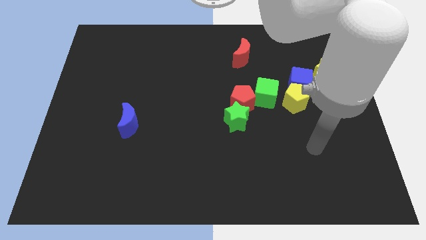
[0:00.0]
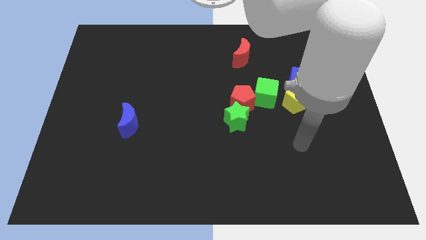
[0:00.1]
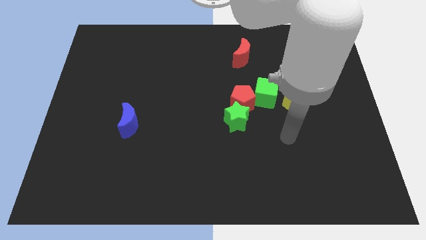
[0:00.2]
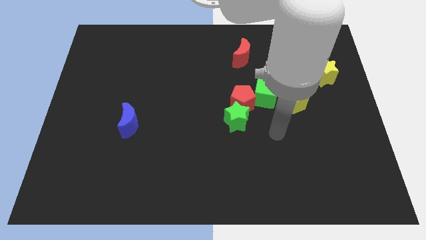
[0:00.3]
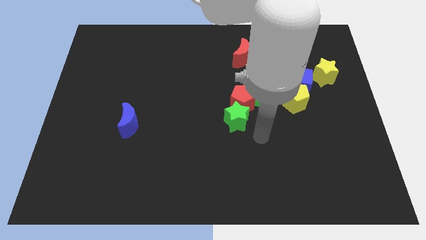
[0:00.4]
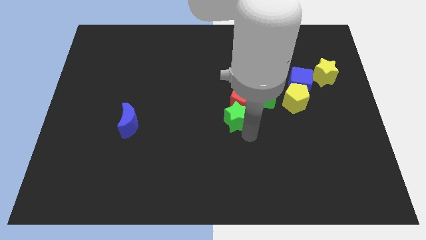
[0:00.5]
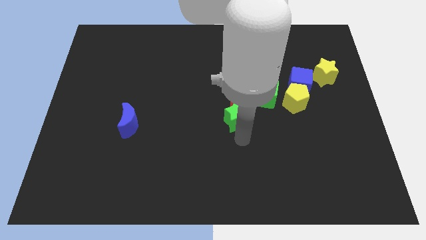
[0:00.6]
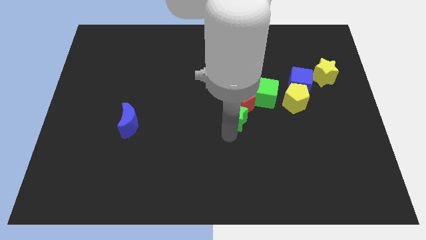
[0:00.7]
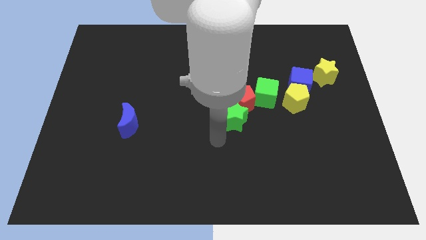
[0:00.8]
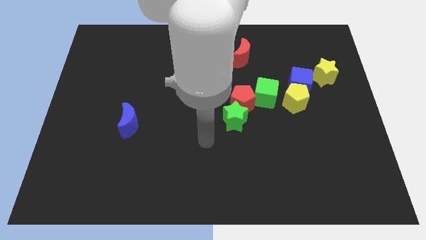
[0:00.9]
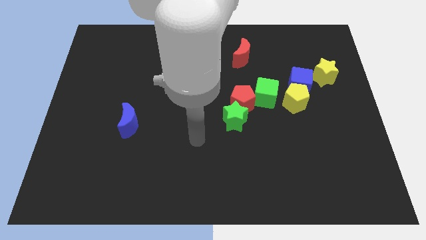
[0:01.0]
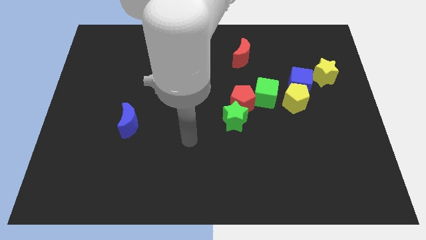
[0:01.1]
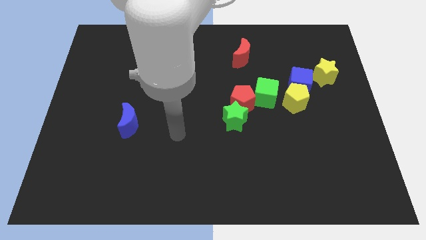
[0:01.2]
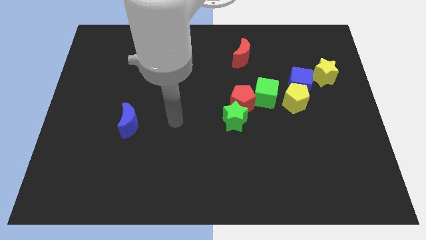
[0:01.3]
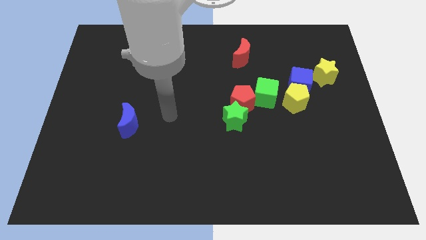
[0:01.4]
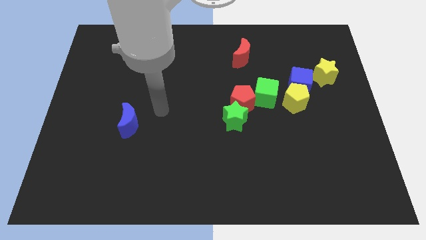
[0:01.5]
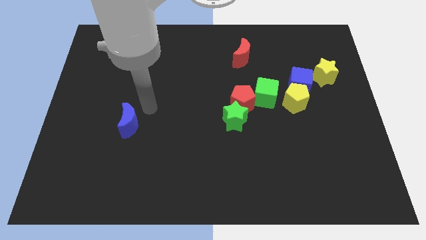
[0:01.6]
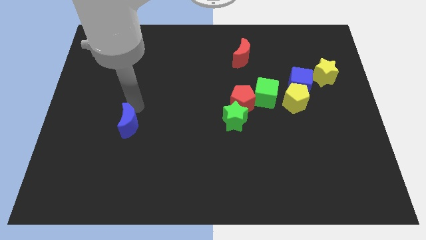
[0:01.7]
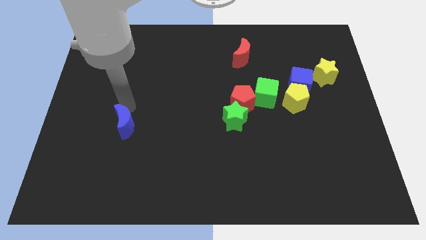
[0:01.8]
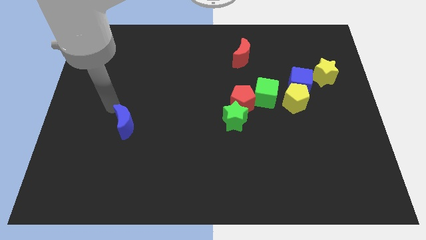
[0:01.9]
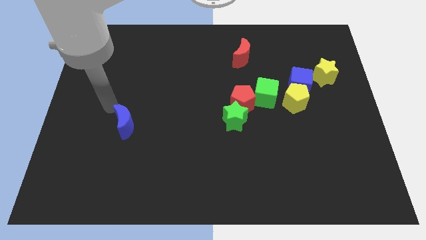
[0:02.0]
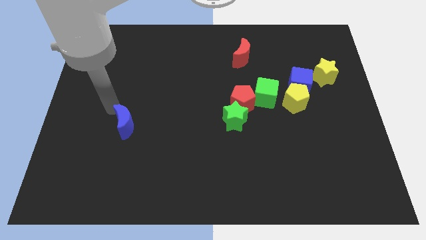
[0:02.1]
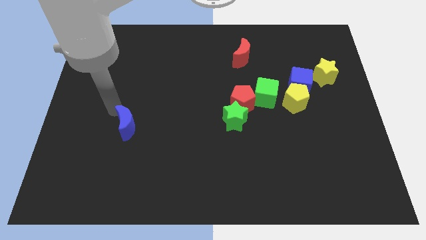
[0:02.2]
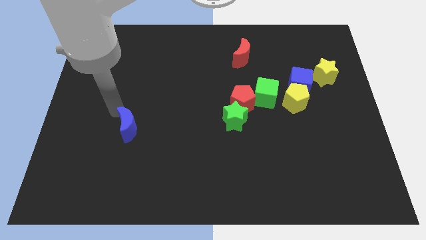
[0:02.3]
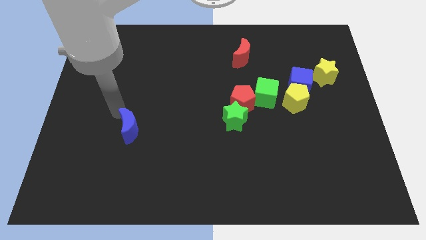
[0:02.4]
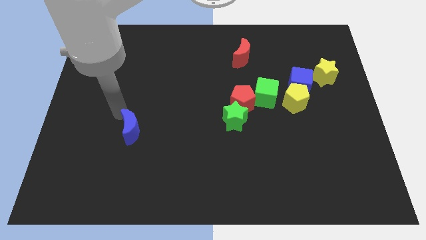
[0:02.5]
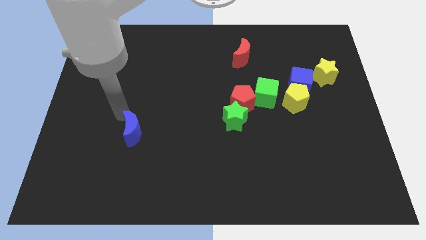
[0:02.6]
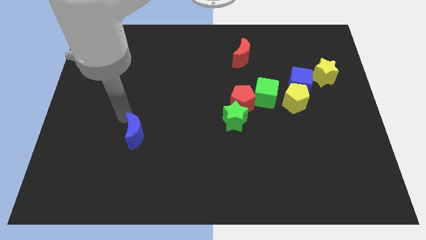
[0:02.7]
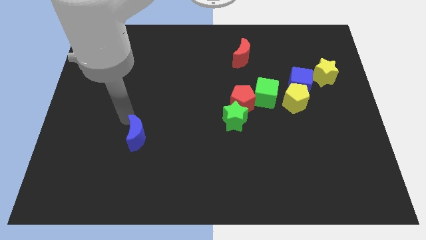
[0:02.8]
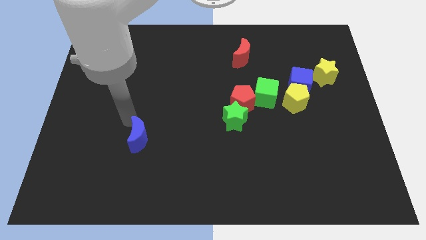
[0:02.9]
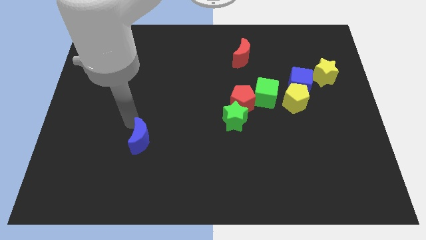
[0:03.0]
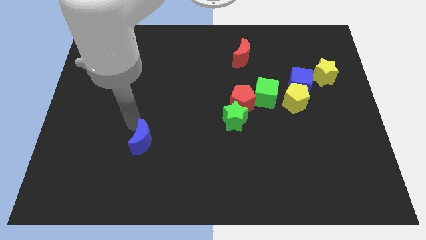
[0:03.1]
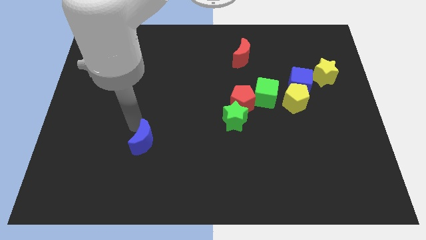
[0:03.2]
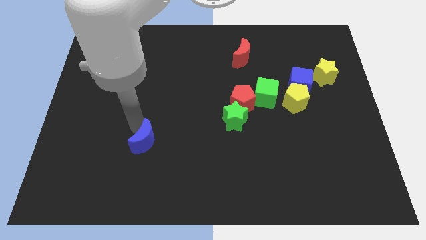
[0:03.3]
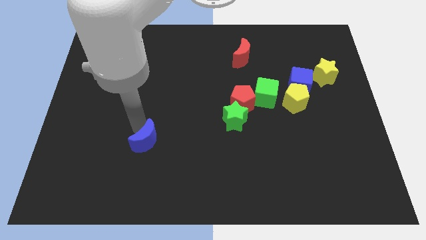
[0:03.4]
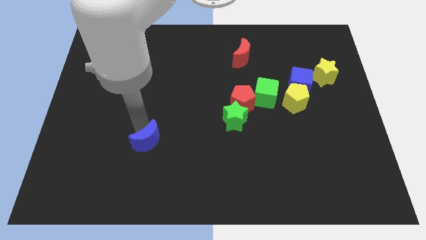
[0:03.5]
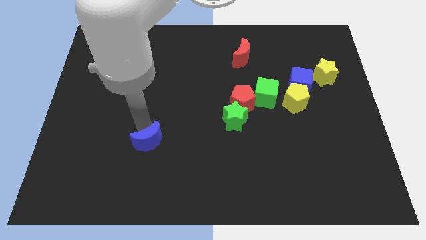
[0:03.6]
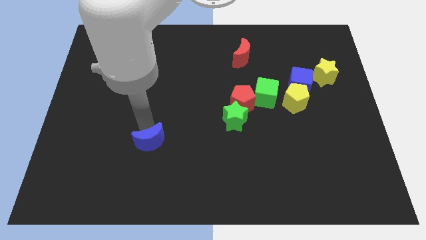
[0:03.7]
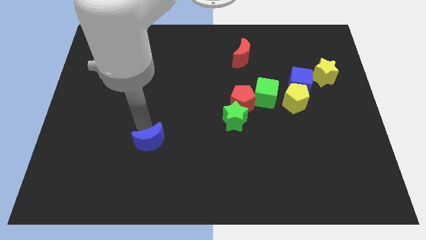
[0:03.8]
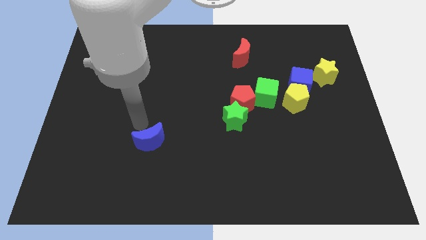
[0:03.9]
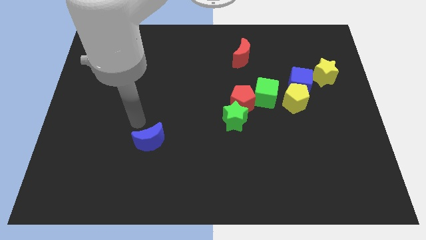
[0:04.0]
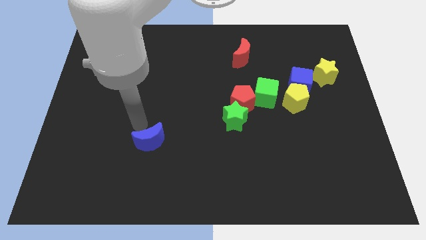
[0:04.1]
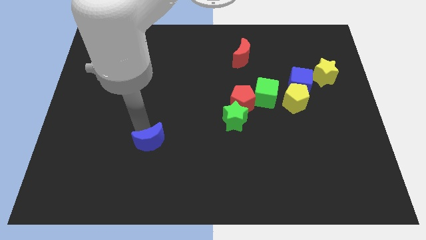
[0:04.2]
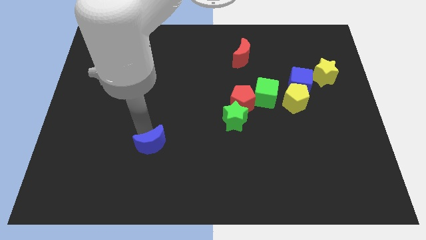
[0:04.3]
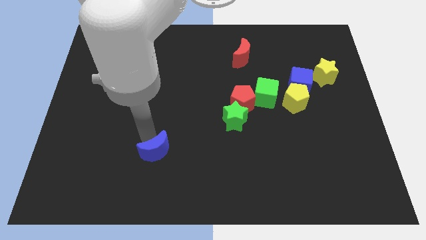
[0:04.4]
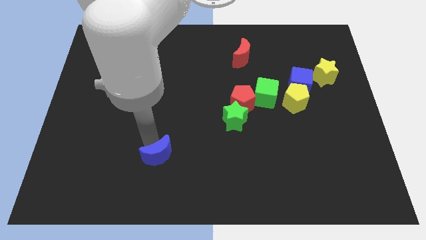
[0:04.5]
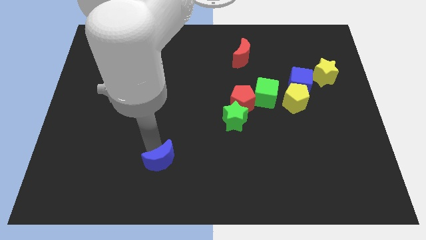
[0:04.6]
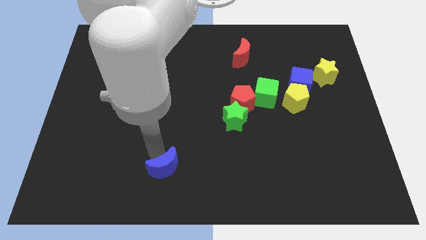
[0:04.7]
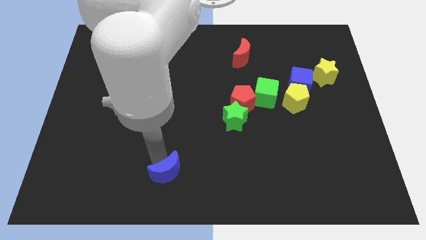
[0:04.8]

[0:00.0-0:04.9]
slide the blue moon to the bottom side

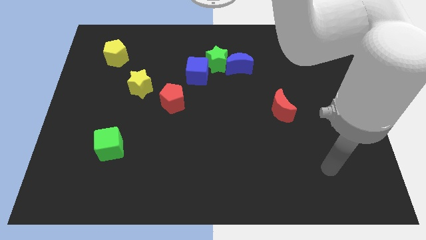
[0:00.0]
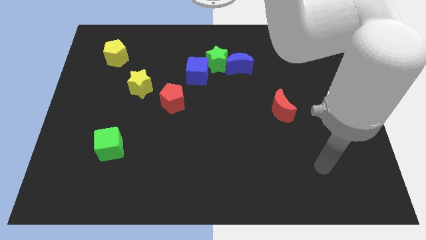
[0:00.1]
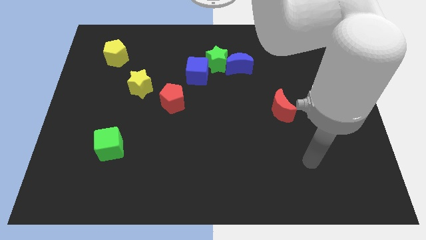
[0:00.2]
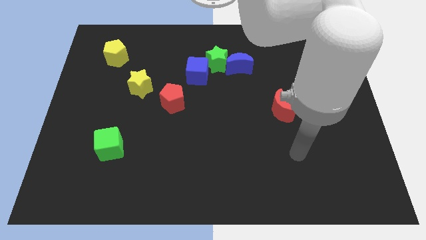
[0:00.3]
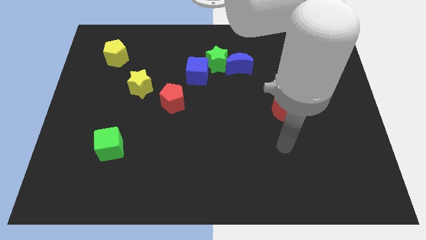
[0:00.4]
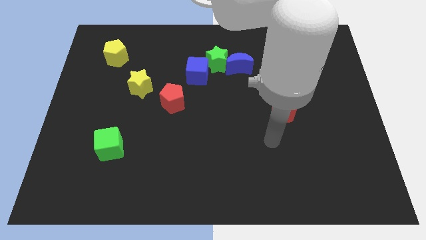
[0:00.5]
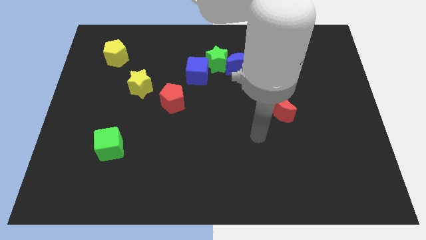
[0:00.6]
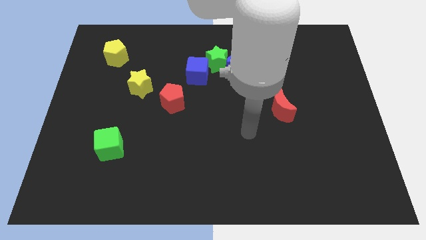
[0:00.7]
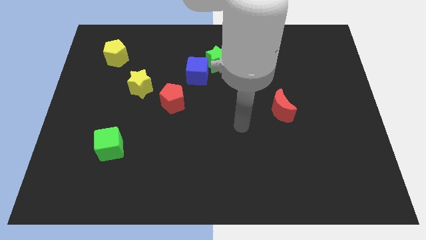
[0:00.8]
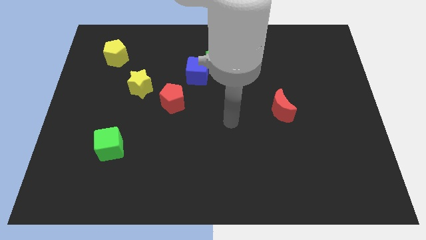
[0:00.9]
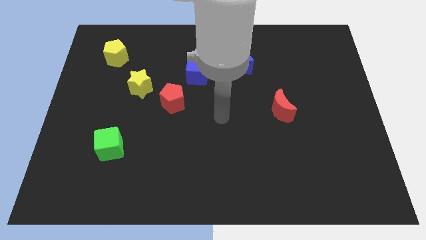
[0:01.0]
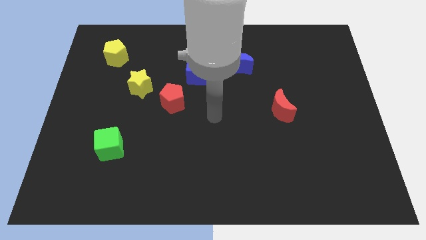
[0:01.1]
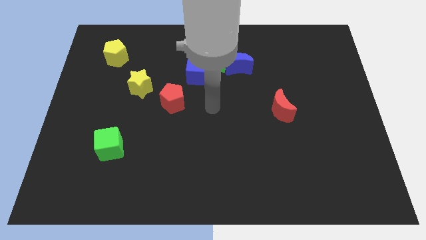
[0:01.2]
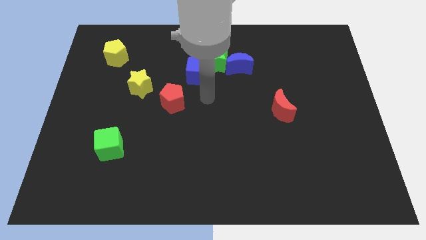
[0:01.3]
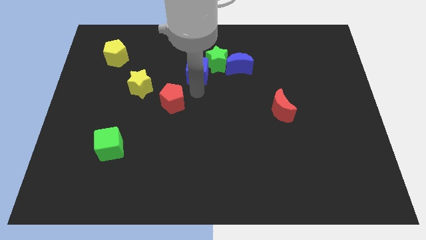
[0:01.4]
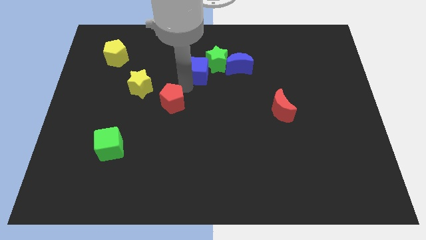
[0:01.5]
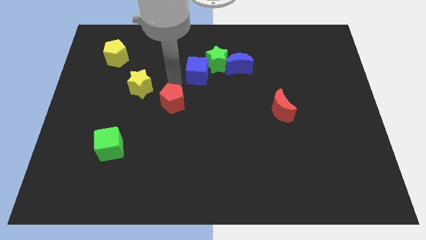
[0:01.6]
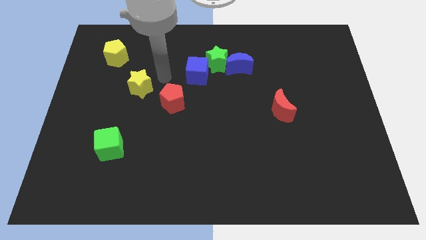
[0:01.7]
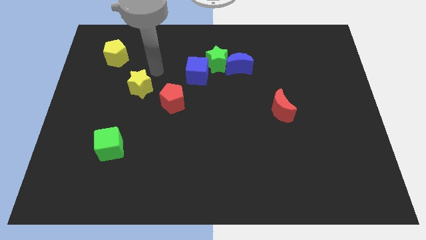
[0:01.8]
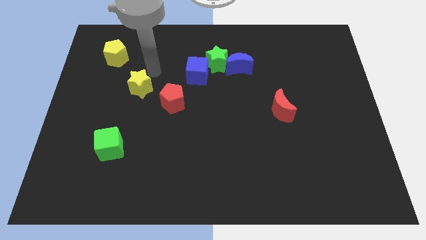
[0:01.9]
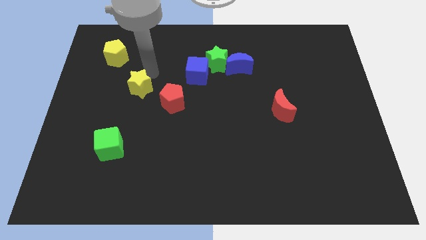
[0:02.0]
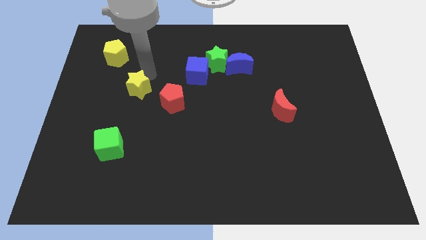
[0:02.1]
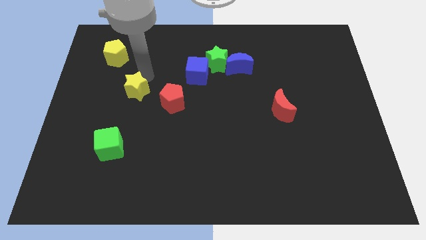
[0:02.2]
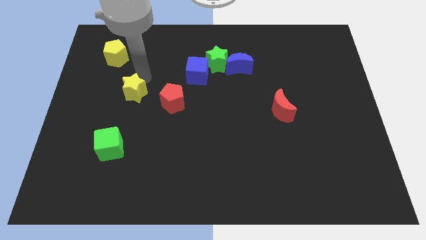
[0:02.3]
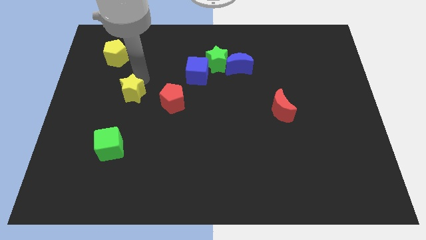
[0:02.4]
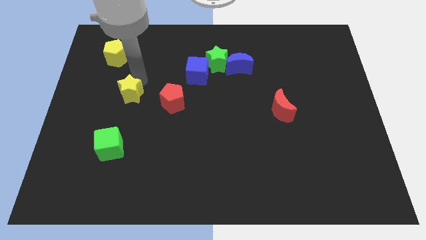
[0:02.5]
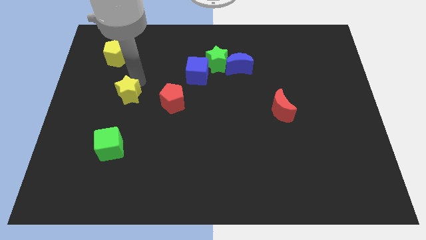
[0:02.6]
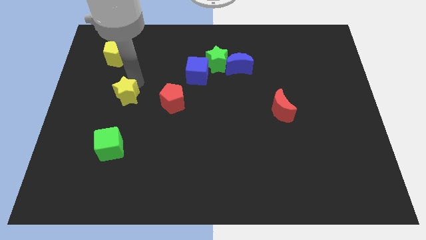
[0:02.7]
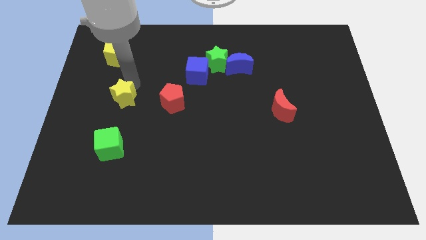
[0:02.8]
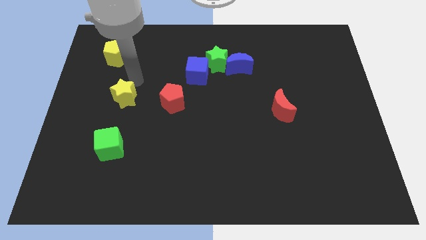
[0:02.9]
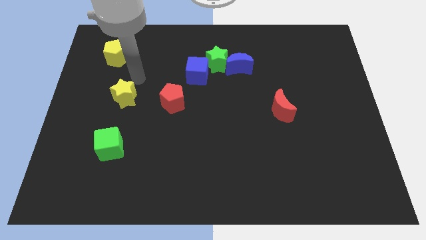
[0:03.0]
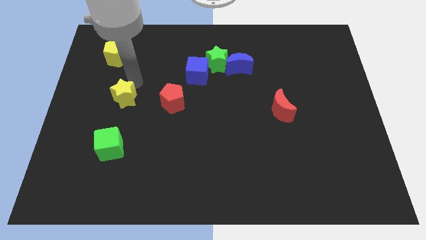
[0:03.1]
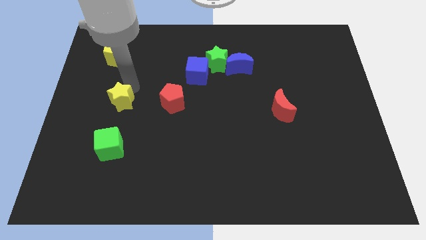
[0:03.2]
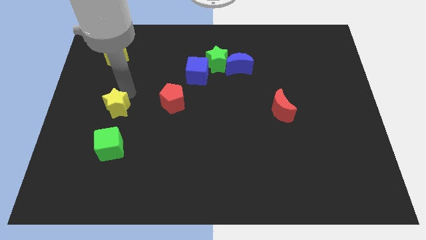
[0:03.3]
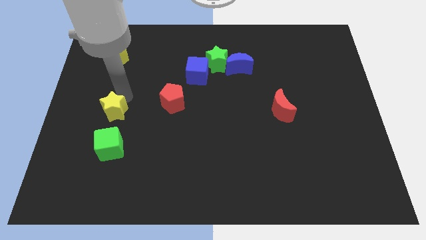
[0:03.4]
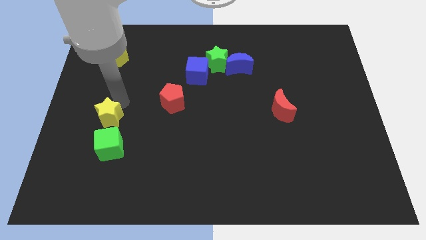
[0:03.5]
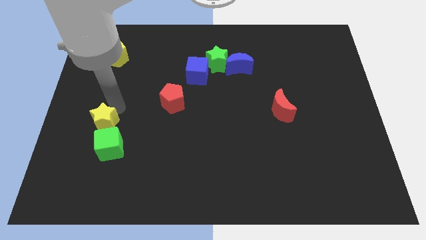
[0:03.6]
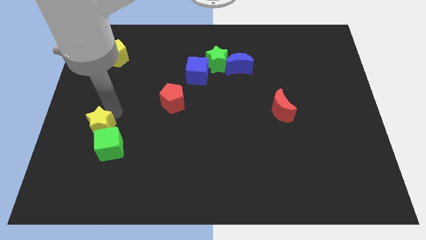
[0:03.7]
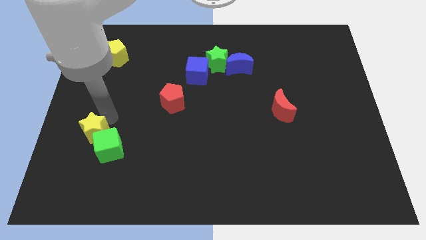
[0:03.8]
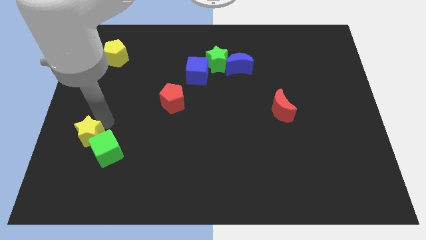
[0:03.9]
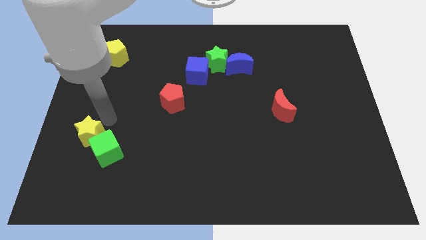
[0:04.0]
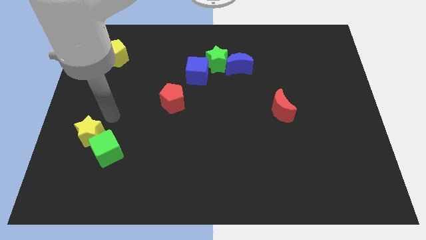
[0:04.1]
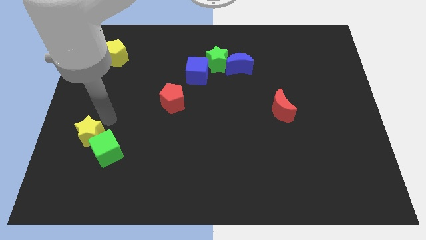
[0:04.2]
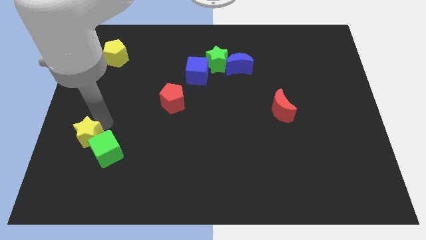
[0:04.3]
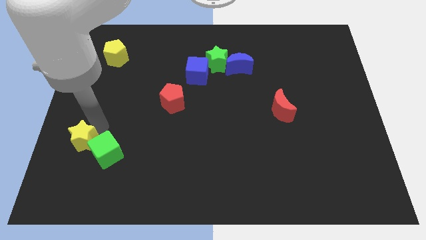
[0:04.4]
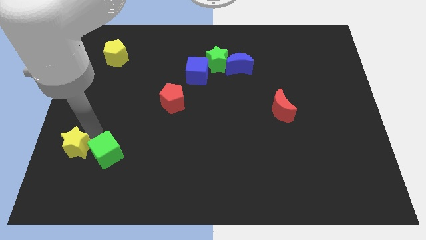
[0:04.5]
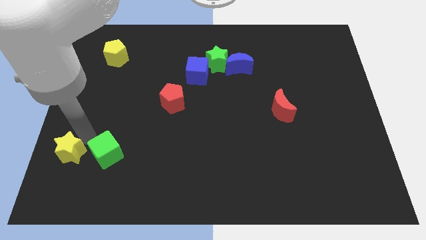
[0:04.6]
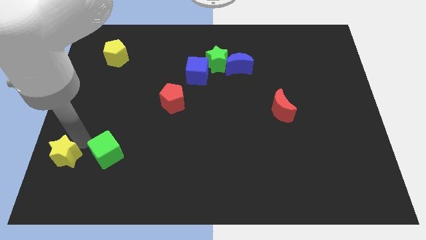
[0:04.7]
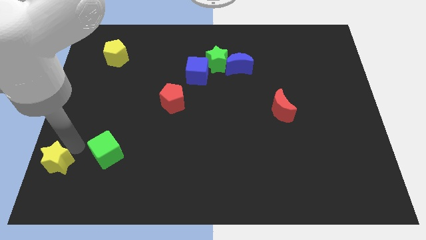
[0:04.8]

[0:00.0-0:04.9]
put the yellow star to the lower left corner
